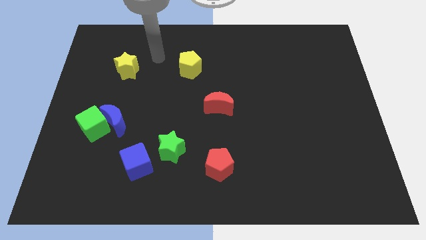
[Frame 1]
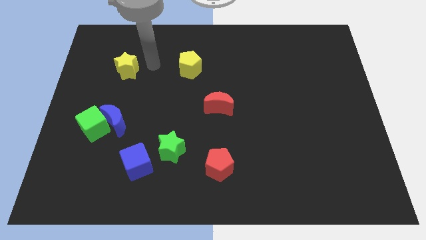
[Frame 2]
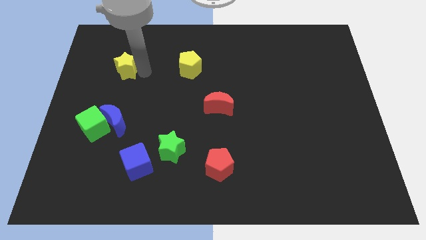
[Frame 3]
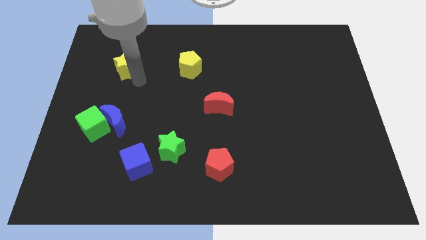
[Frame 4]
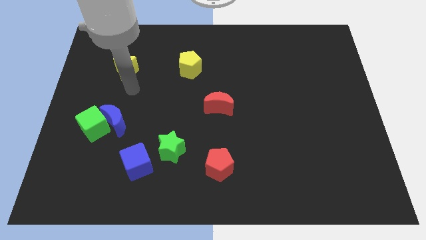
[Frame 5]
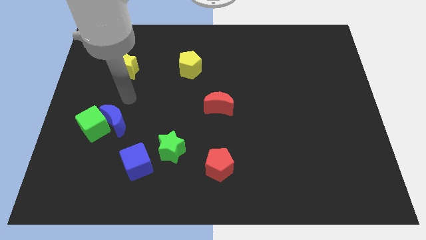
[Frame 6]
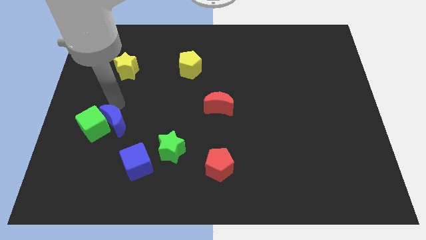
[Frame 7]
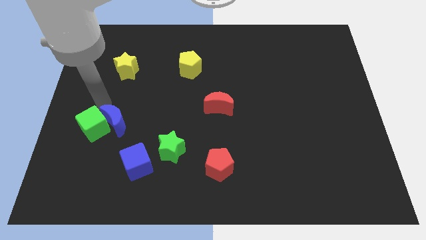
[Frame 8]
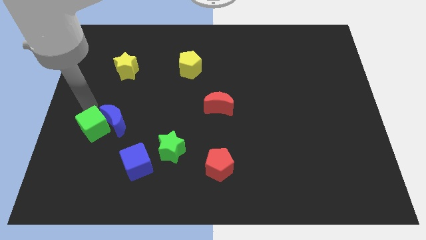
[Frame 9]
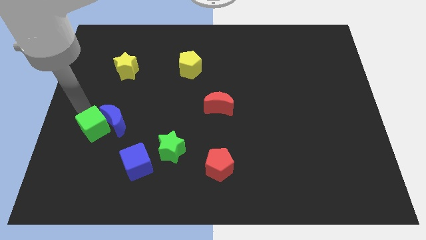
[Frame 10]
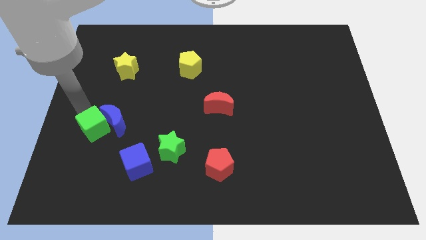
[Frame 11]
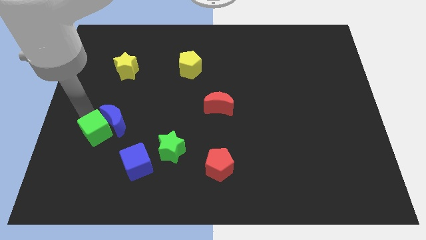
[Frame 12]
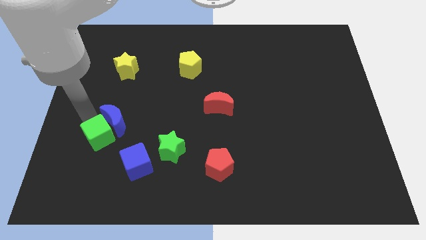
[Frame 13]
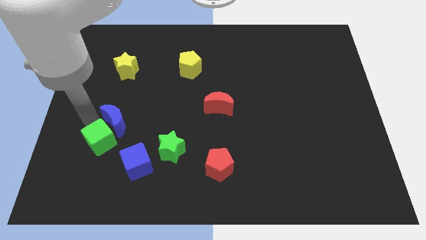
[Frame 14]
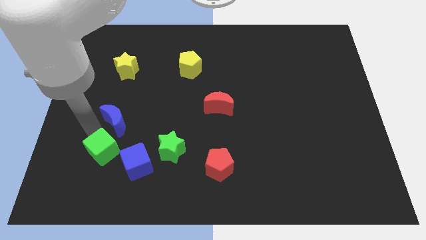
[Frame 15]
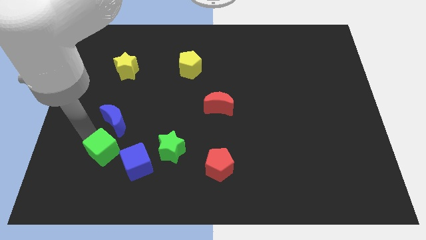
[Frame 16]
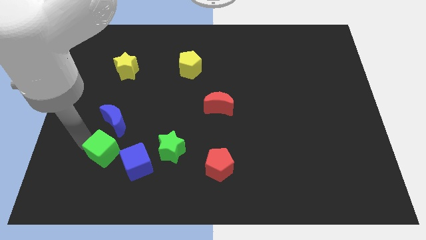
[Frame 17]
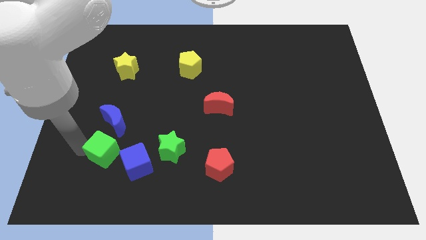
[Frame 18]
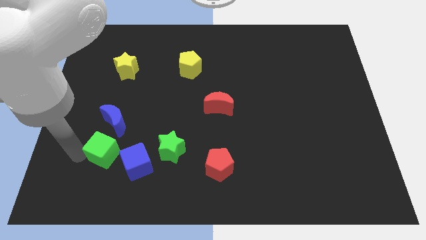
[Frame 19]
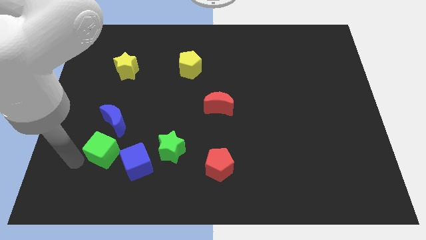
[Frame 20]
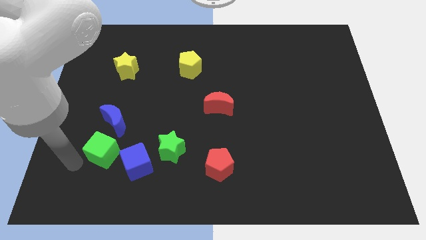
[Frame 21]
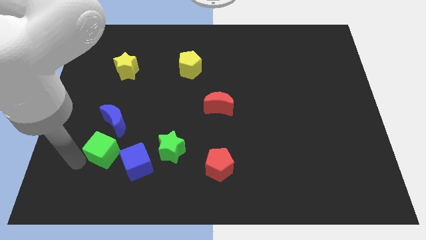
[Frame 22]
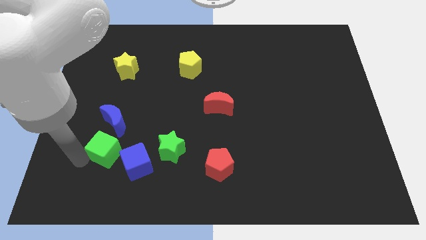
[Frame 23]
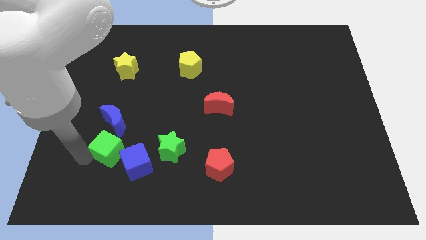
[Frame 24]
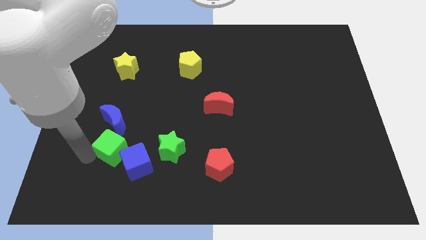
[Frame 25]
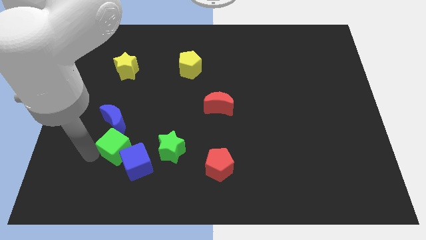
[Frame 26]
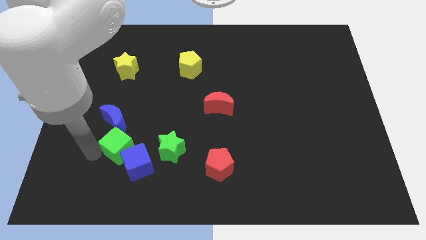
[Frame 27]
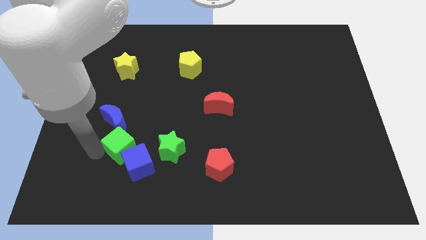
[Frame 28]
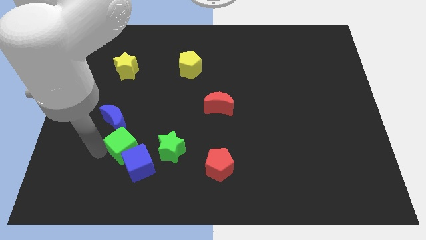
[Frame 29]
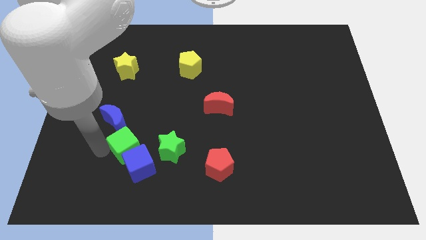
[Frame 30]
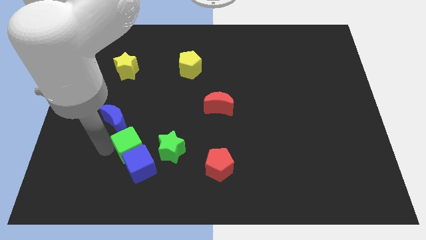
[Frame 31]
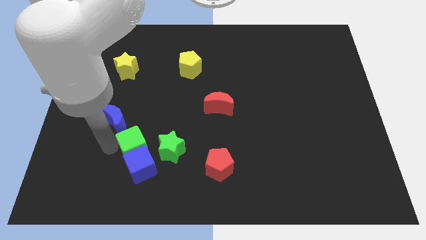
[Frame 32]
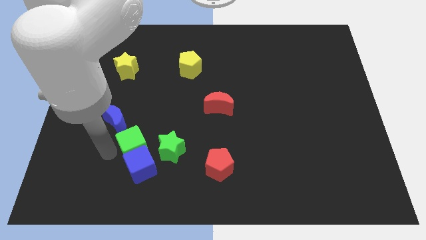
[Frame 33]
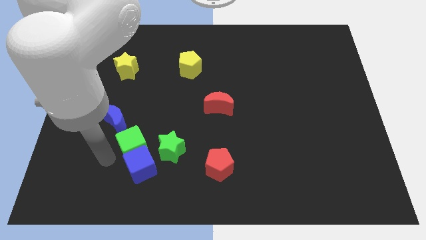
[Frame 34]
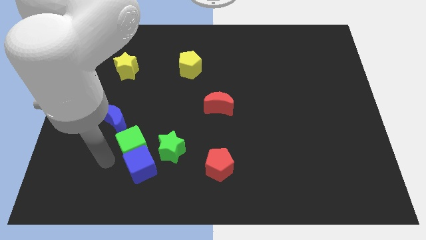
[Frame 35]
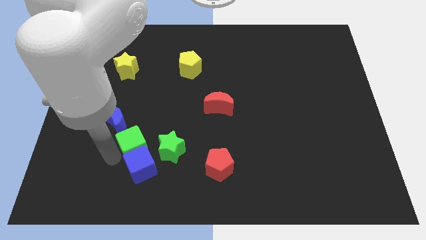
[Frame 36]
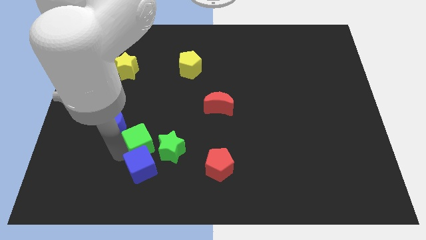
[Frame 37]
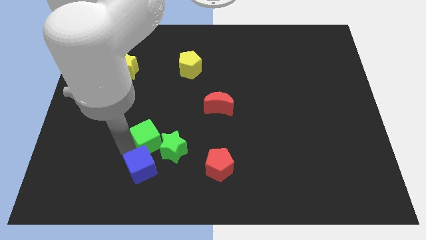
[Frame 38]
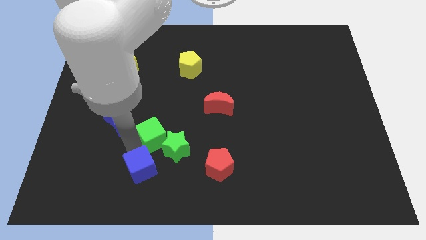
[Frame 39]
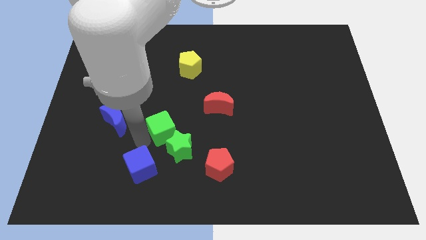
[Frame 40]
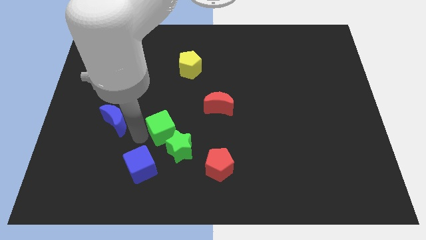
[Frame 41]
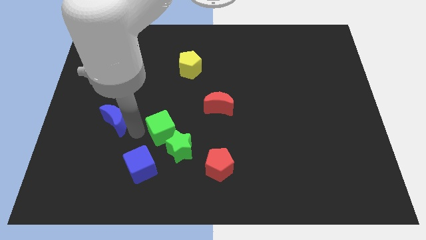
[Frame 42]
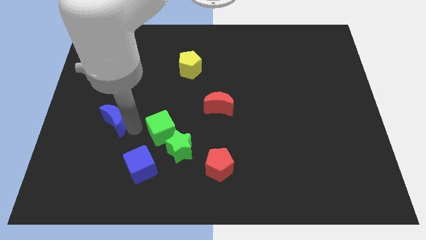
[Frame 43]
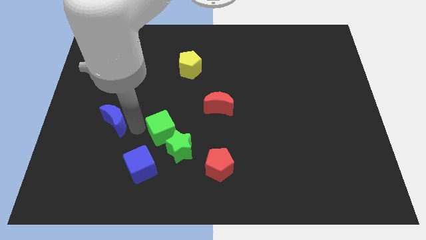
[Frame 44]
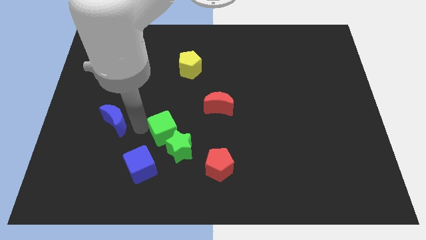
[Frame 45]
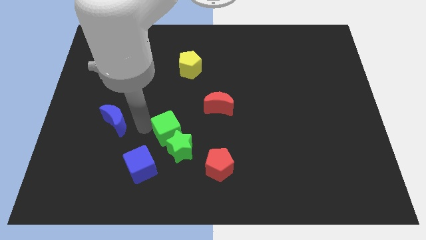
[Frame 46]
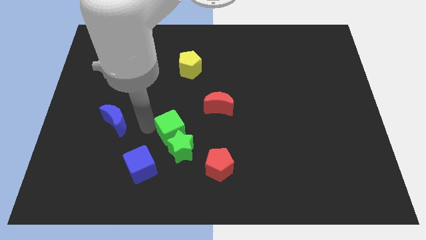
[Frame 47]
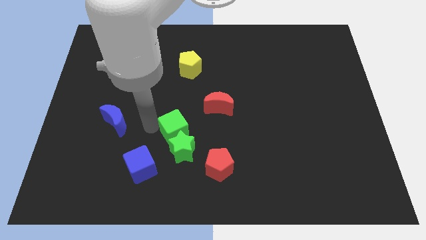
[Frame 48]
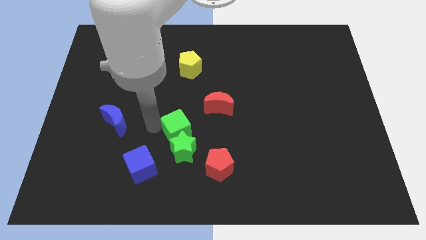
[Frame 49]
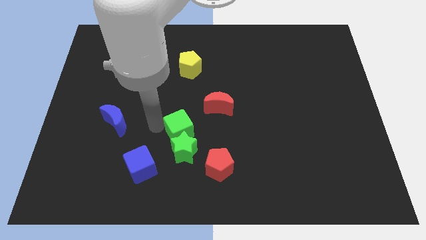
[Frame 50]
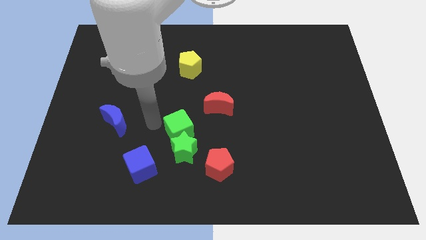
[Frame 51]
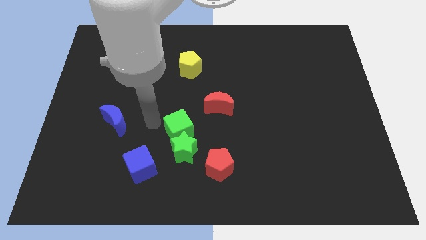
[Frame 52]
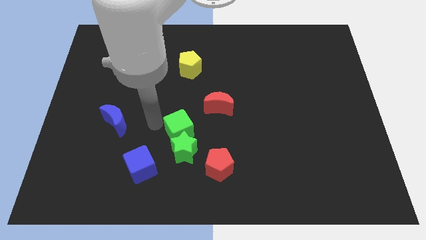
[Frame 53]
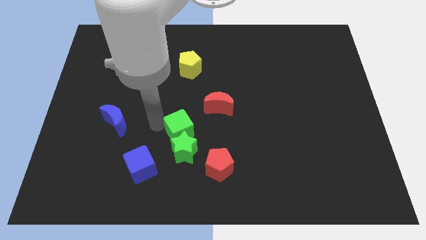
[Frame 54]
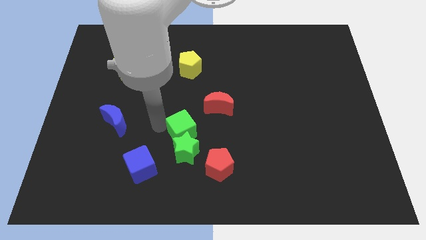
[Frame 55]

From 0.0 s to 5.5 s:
move the green cube right

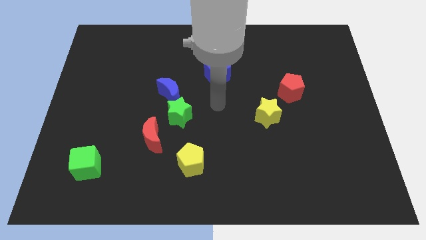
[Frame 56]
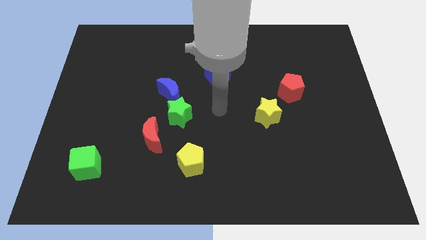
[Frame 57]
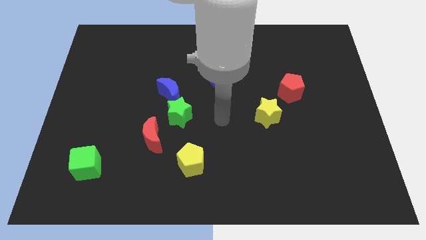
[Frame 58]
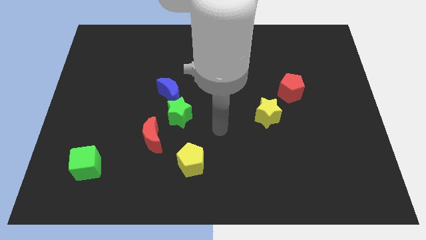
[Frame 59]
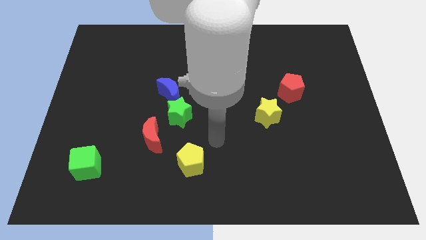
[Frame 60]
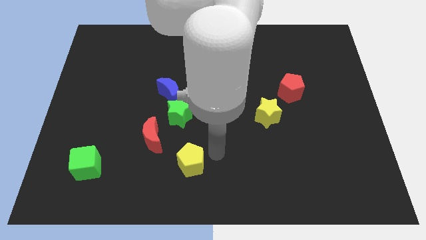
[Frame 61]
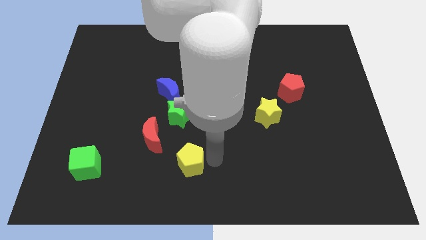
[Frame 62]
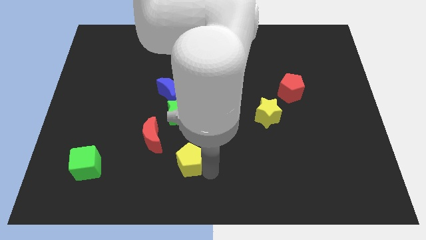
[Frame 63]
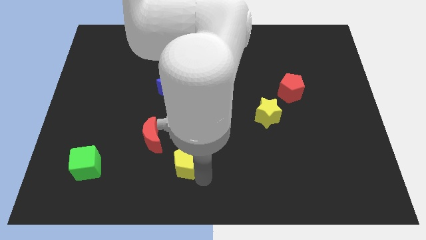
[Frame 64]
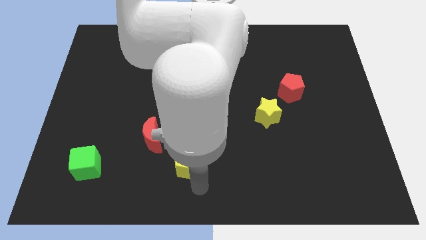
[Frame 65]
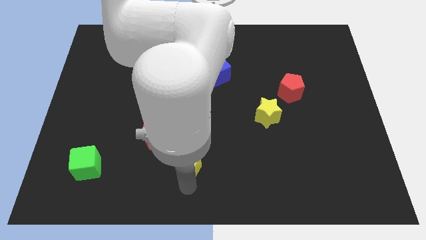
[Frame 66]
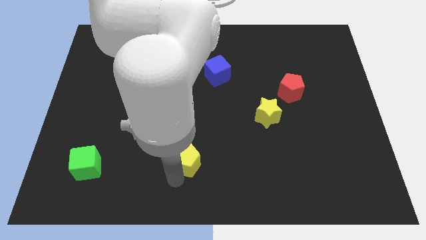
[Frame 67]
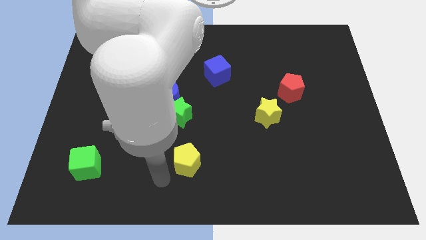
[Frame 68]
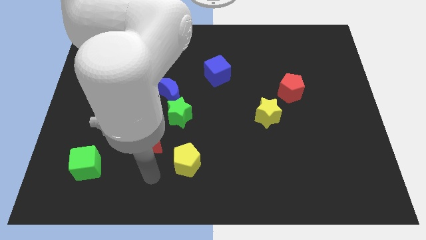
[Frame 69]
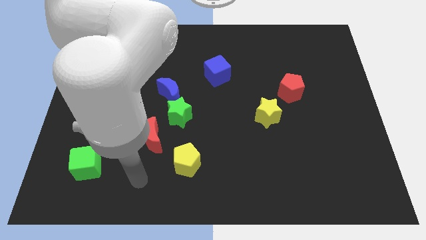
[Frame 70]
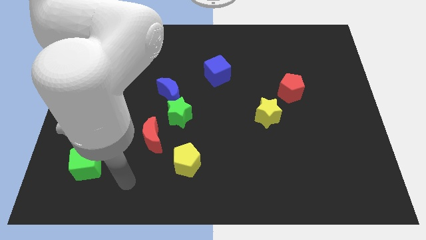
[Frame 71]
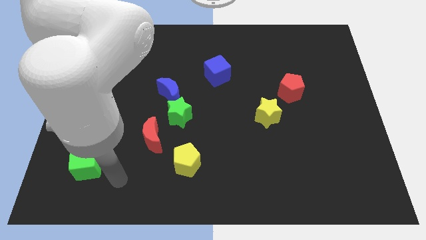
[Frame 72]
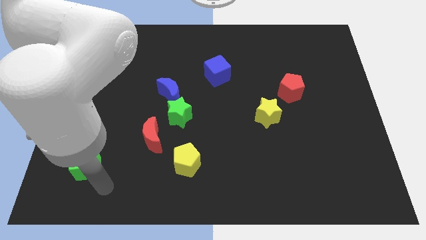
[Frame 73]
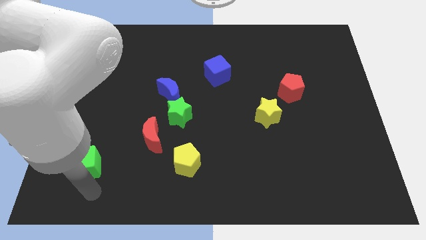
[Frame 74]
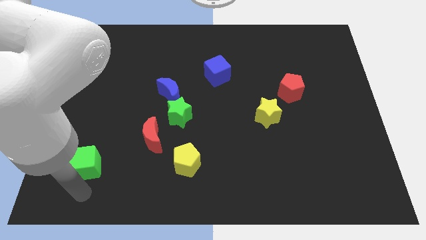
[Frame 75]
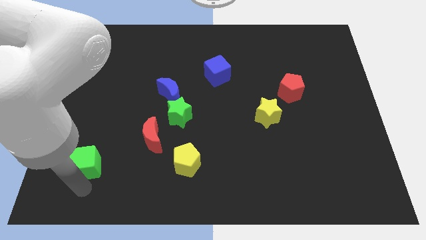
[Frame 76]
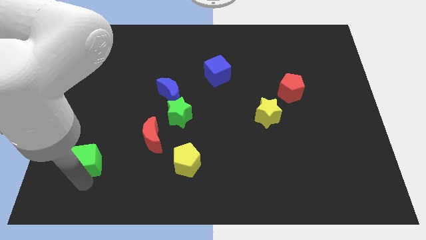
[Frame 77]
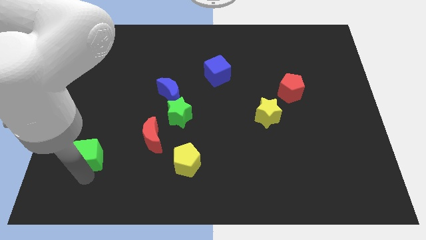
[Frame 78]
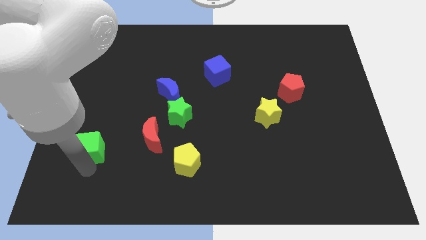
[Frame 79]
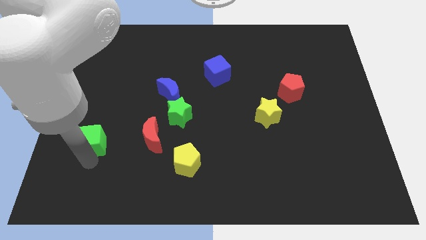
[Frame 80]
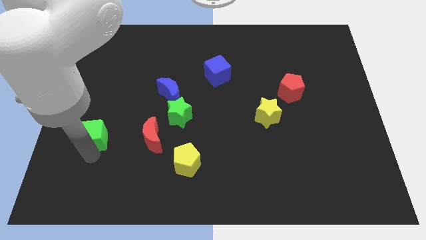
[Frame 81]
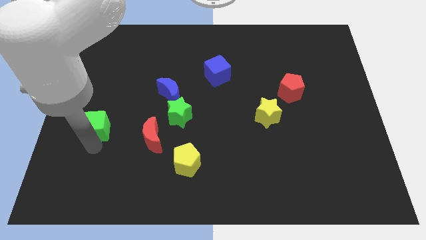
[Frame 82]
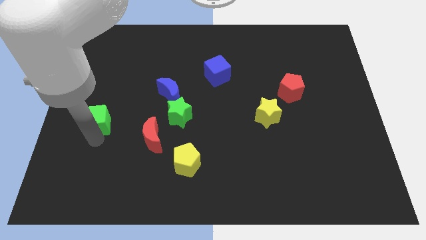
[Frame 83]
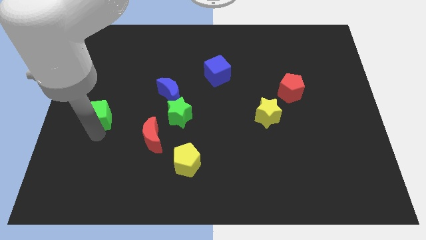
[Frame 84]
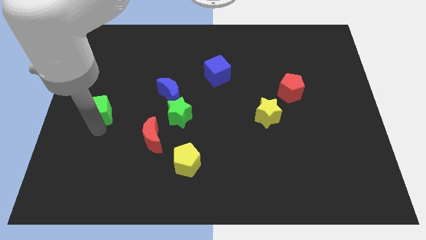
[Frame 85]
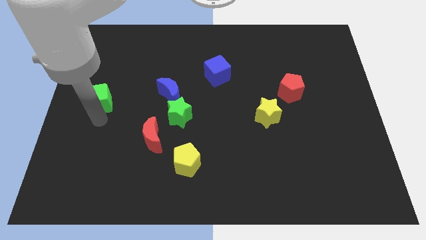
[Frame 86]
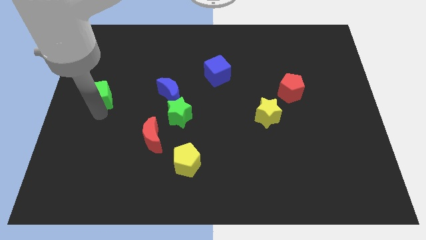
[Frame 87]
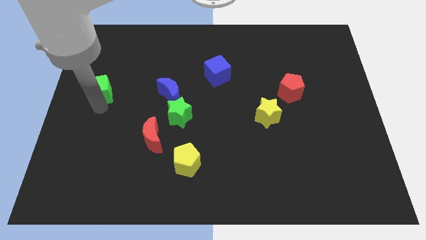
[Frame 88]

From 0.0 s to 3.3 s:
move the green cube upwards
